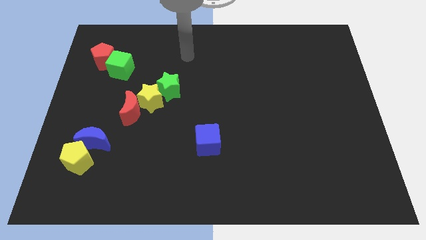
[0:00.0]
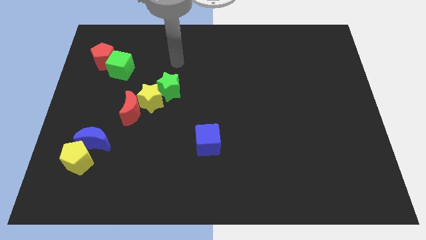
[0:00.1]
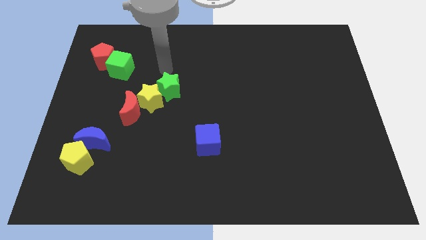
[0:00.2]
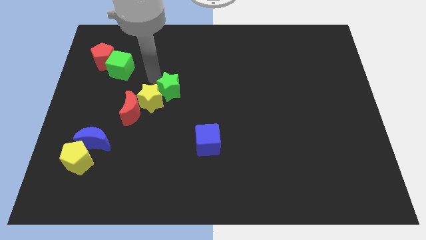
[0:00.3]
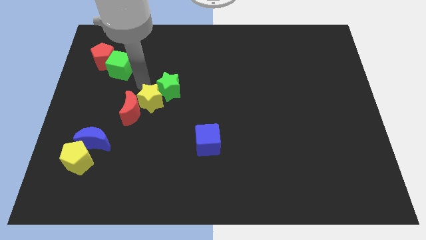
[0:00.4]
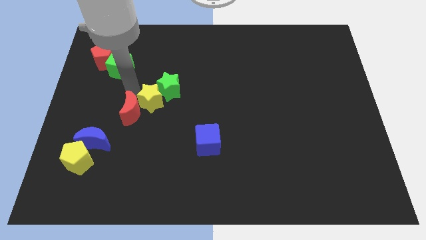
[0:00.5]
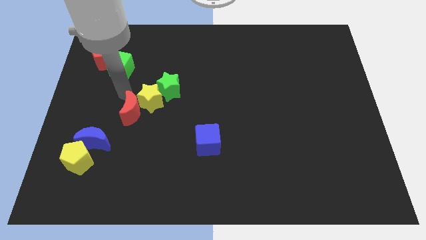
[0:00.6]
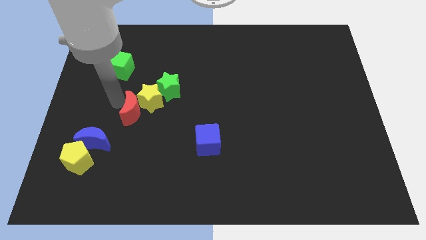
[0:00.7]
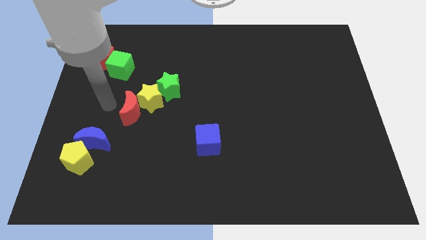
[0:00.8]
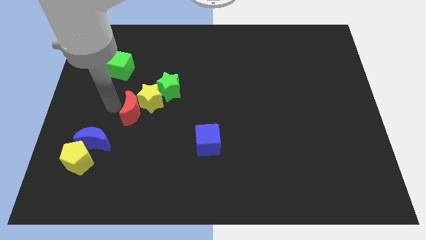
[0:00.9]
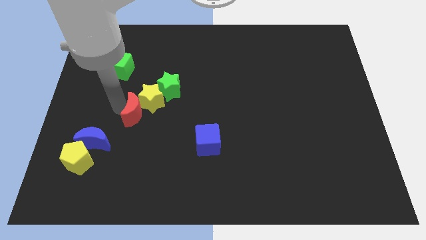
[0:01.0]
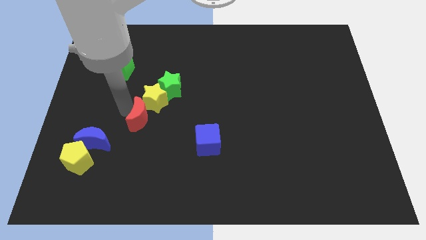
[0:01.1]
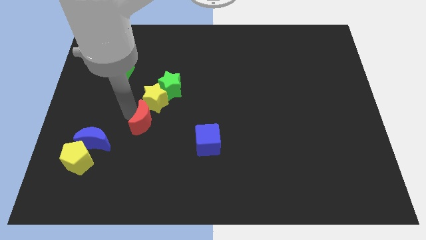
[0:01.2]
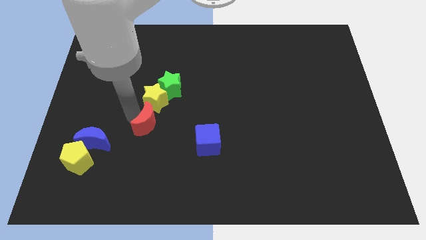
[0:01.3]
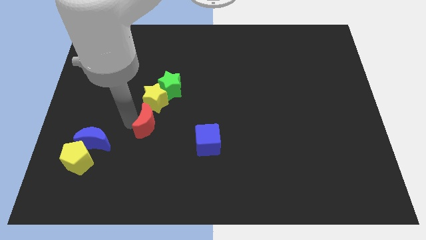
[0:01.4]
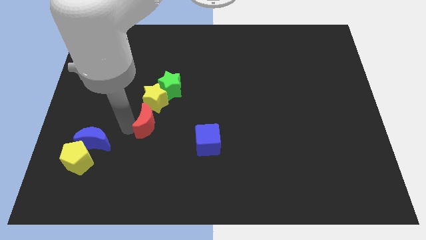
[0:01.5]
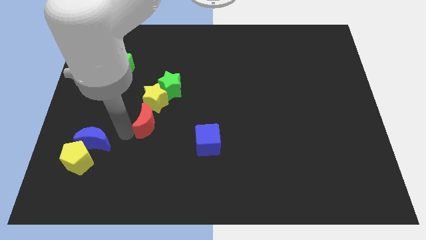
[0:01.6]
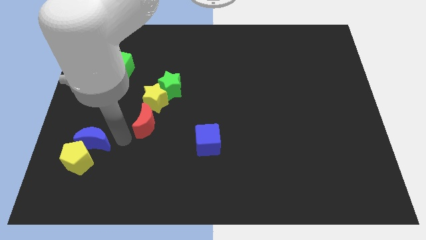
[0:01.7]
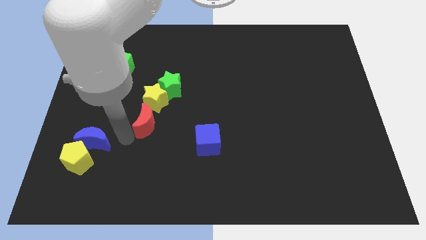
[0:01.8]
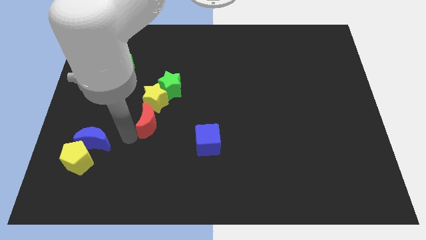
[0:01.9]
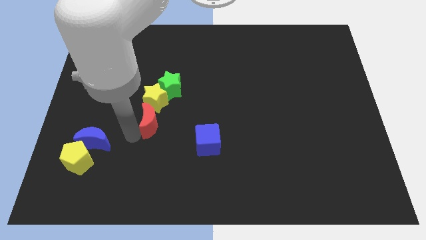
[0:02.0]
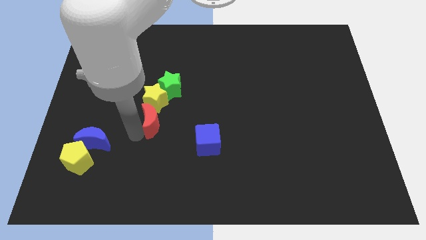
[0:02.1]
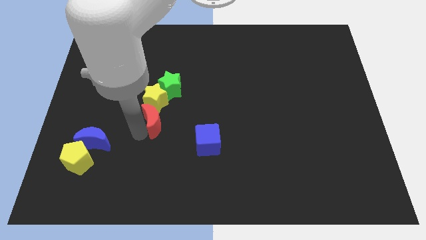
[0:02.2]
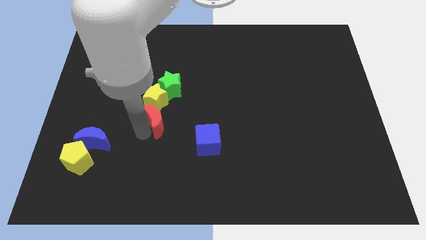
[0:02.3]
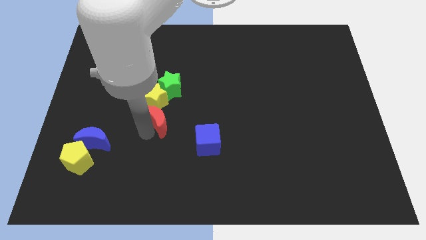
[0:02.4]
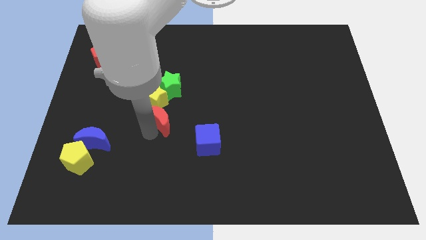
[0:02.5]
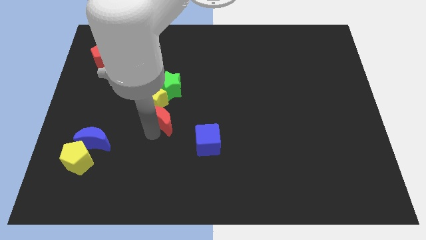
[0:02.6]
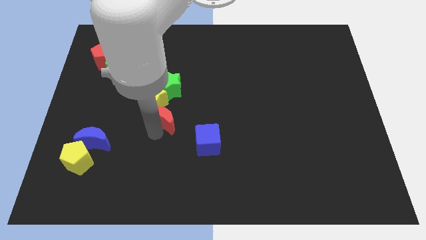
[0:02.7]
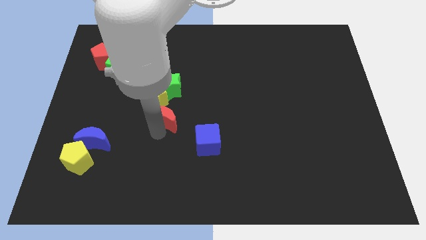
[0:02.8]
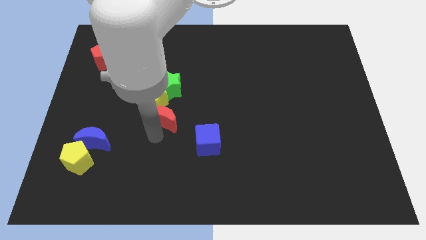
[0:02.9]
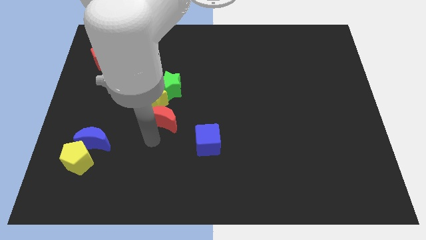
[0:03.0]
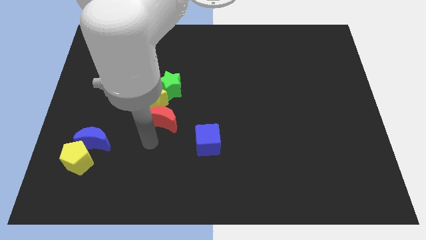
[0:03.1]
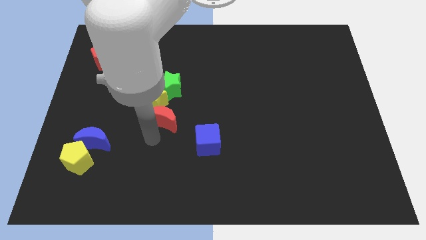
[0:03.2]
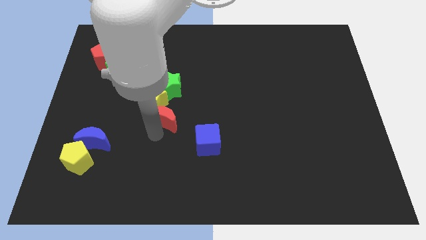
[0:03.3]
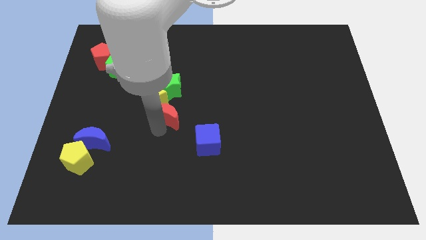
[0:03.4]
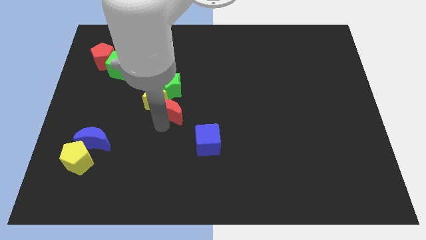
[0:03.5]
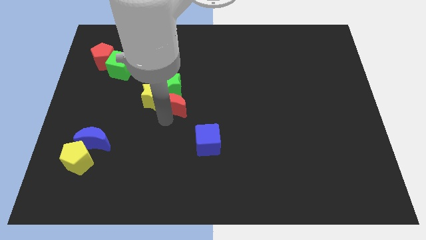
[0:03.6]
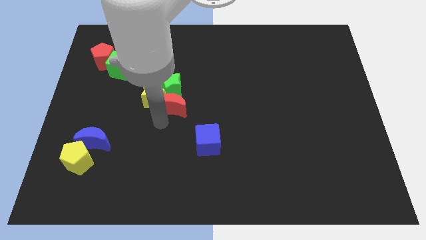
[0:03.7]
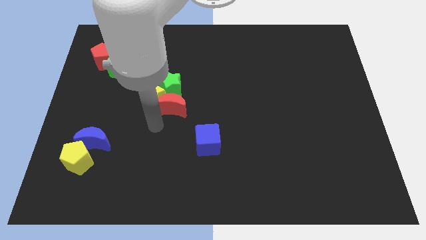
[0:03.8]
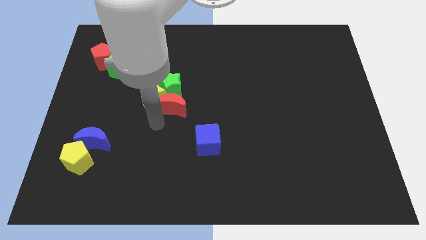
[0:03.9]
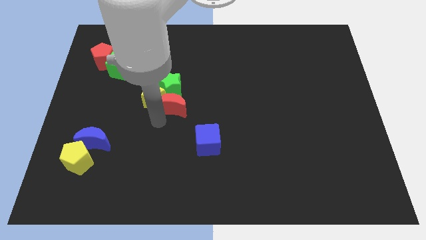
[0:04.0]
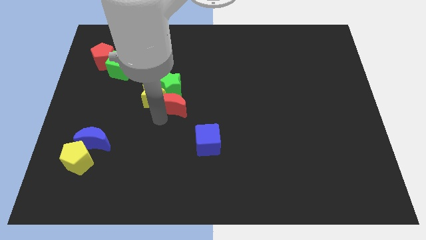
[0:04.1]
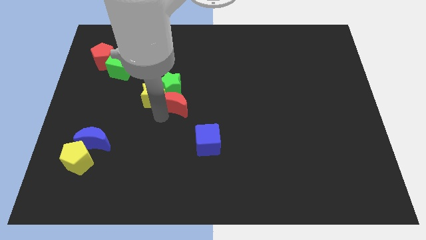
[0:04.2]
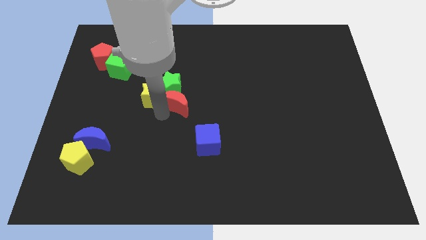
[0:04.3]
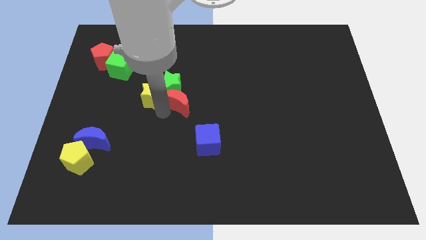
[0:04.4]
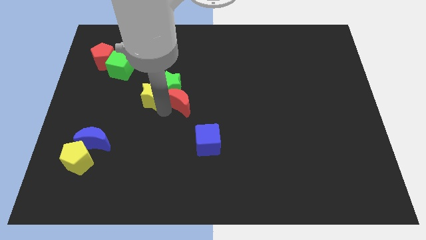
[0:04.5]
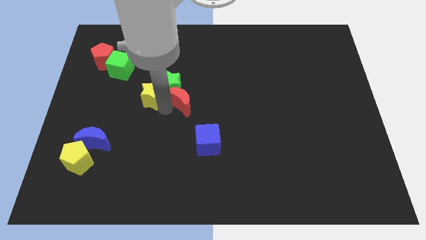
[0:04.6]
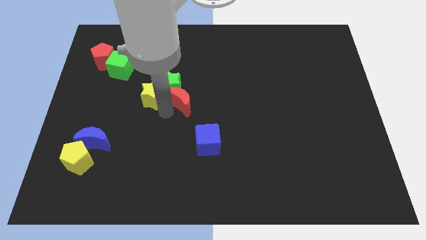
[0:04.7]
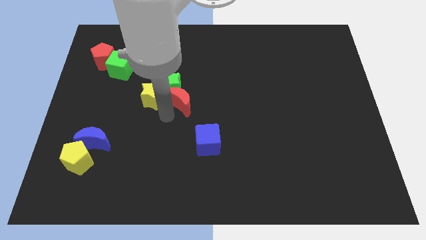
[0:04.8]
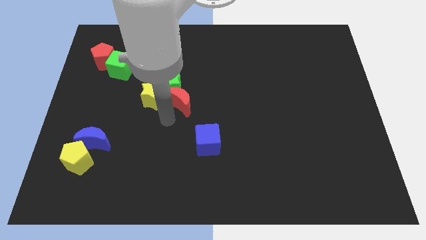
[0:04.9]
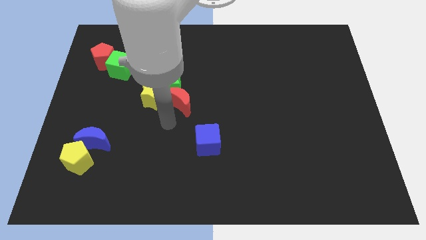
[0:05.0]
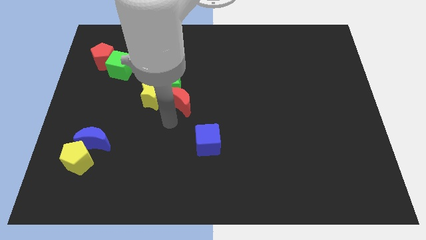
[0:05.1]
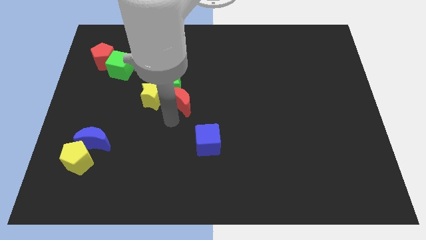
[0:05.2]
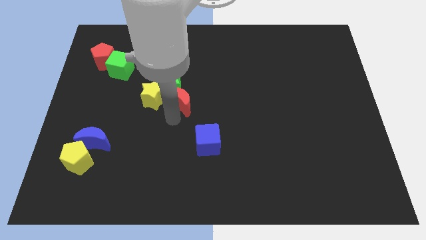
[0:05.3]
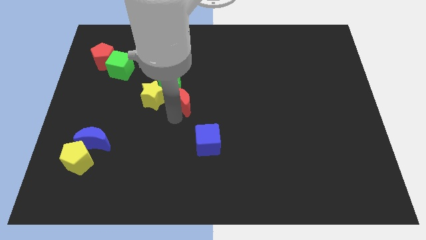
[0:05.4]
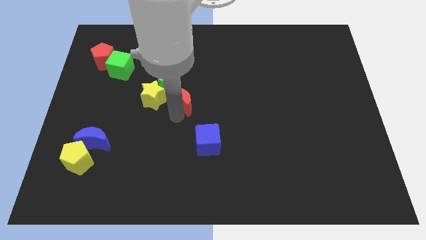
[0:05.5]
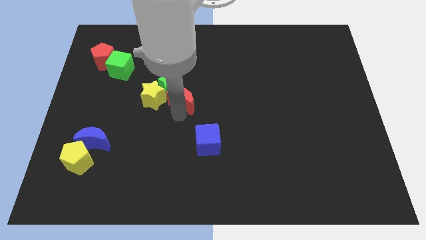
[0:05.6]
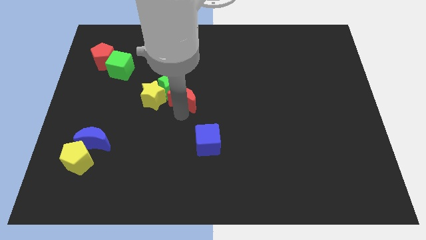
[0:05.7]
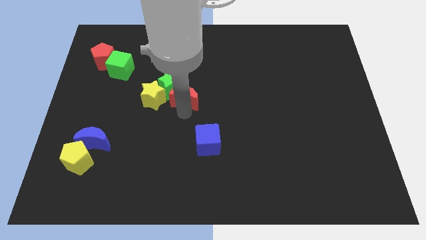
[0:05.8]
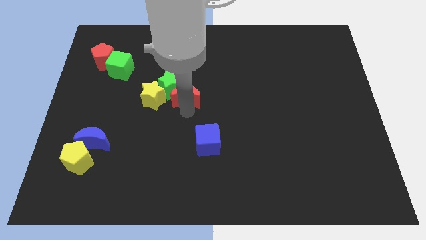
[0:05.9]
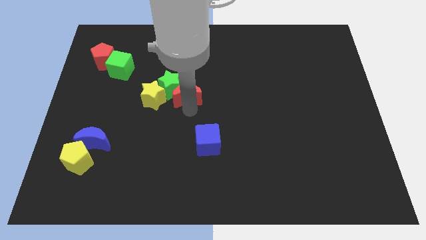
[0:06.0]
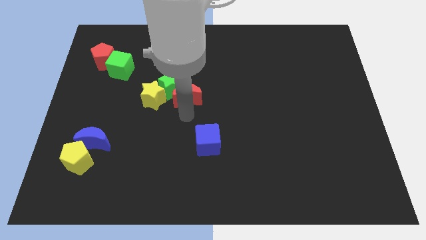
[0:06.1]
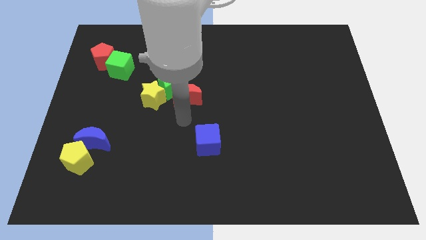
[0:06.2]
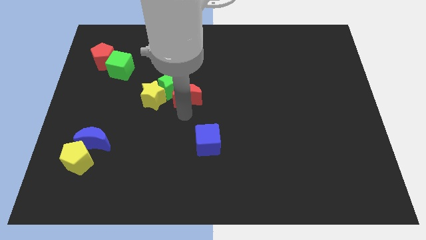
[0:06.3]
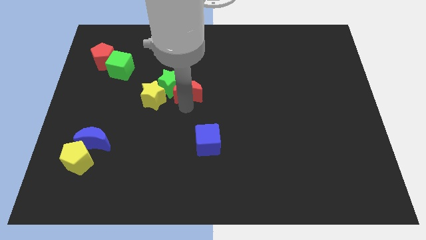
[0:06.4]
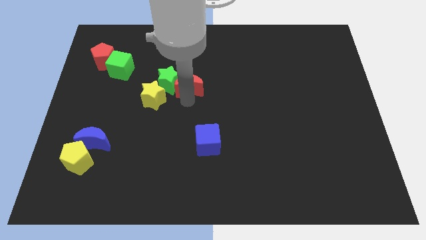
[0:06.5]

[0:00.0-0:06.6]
slide the red moon to the top right of the green star

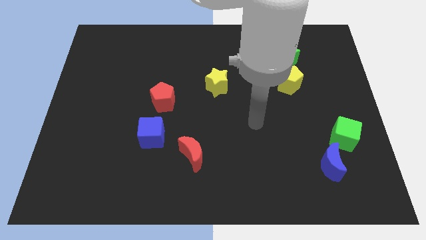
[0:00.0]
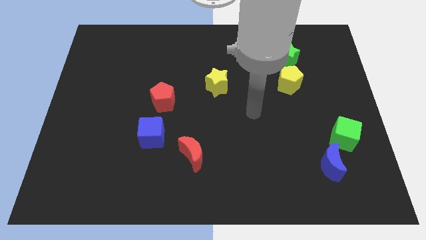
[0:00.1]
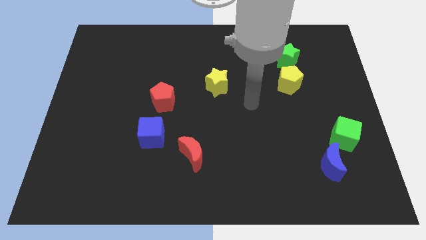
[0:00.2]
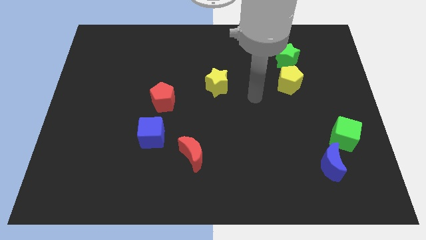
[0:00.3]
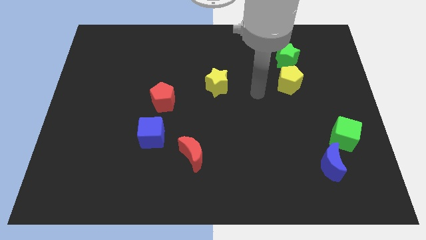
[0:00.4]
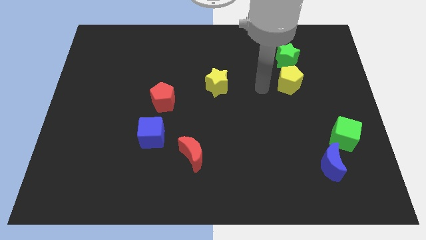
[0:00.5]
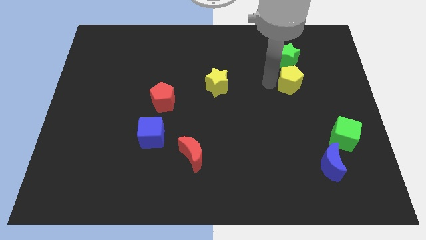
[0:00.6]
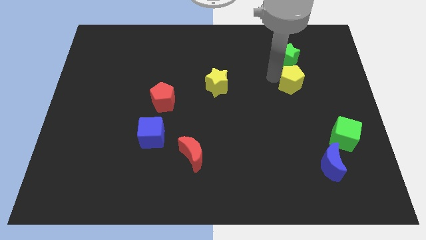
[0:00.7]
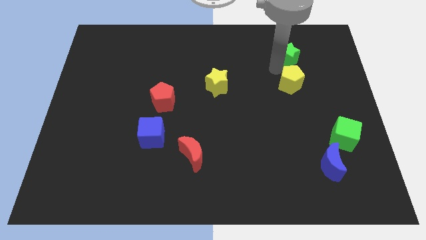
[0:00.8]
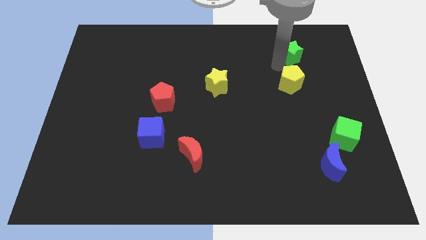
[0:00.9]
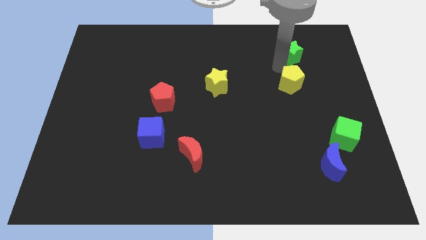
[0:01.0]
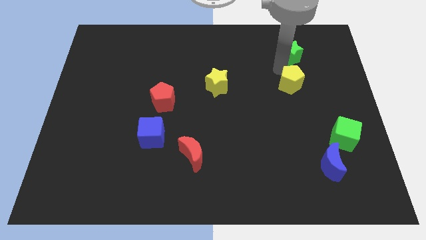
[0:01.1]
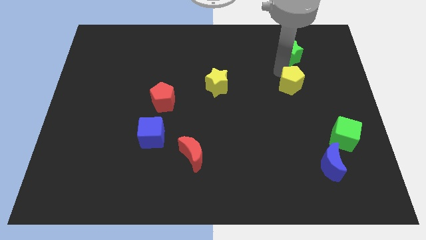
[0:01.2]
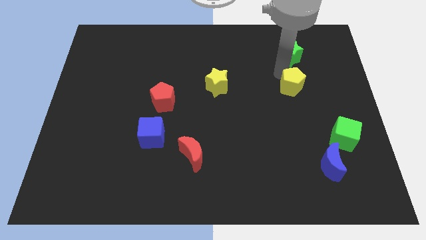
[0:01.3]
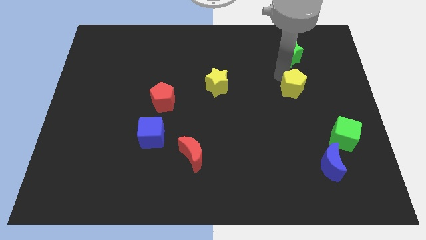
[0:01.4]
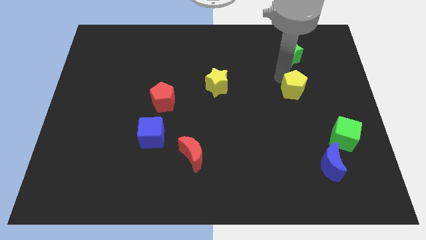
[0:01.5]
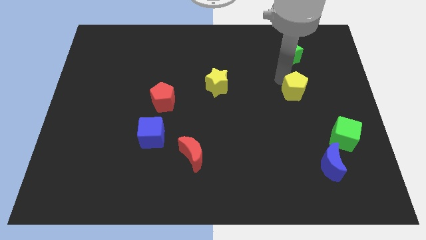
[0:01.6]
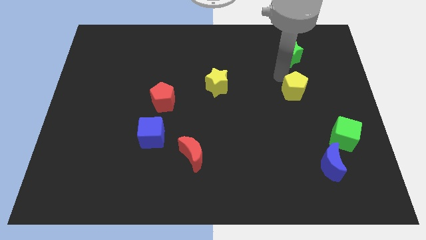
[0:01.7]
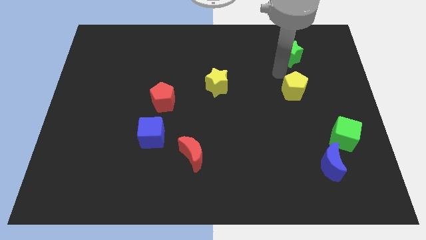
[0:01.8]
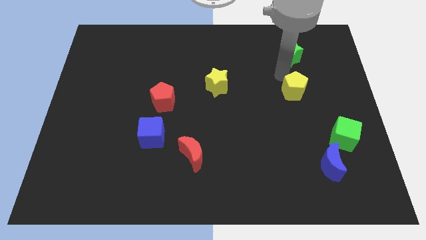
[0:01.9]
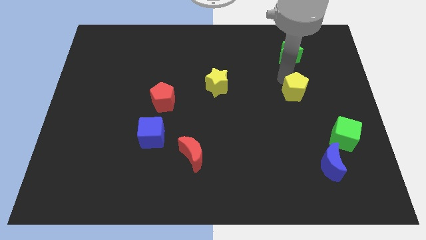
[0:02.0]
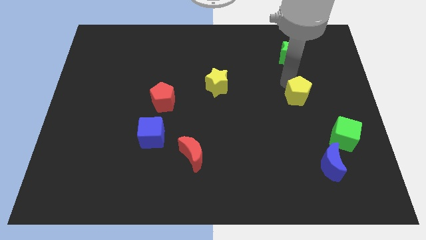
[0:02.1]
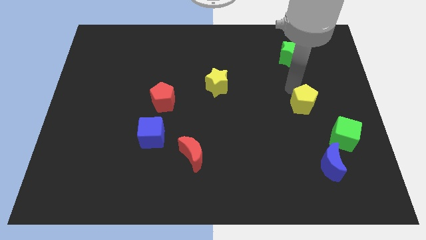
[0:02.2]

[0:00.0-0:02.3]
slide the yellow pentagon to the top left side of the green cube
